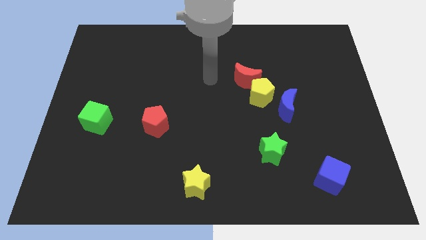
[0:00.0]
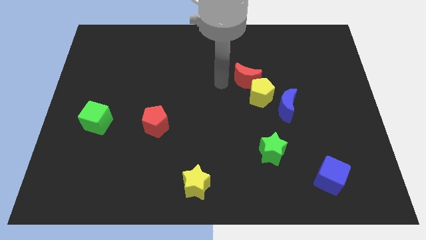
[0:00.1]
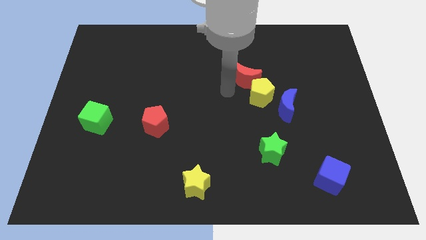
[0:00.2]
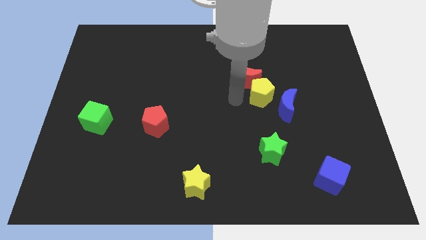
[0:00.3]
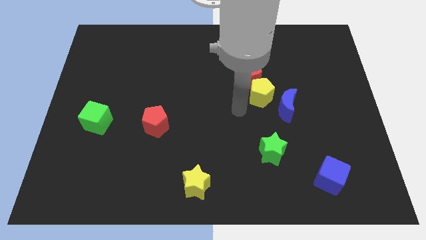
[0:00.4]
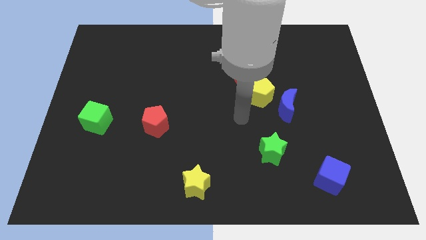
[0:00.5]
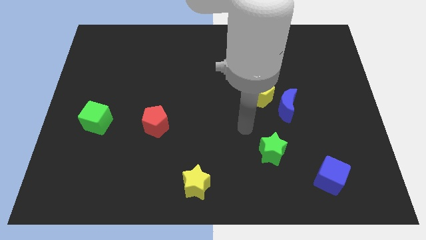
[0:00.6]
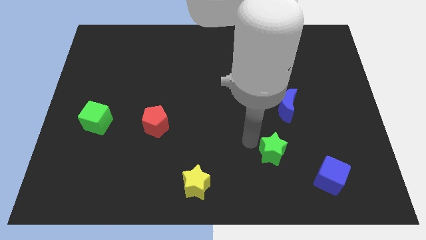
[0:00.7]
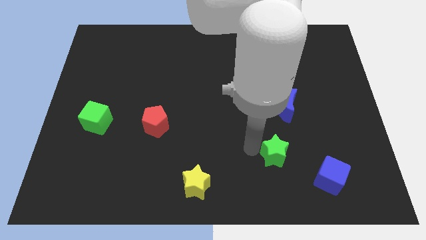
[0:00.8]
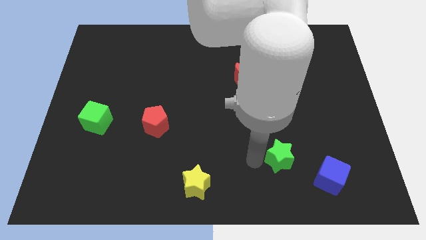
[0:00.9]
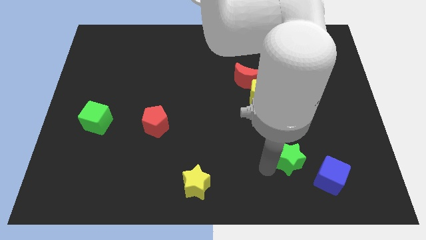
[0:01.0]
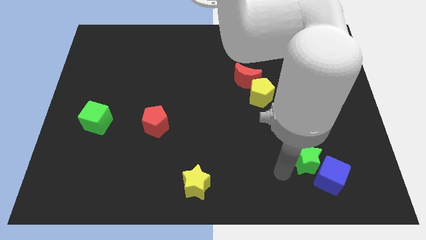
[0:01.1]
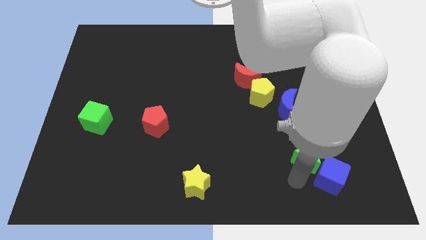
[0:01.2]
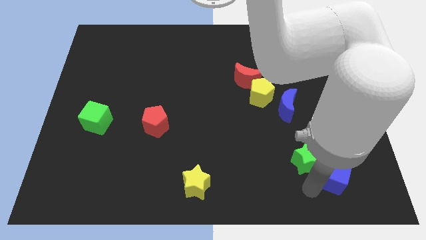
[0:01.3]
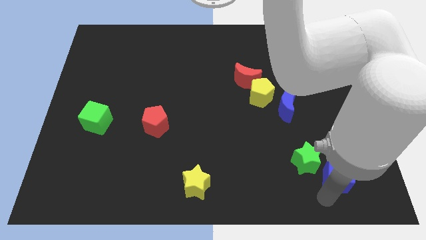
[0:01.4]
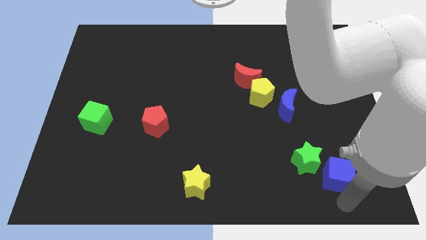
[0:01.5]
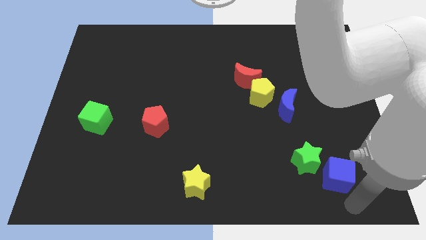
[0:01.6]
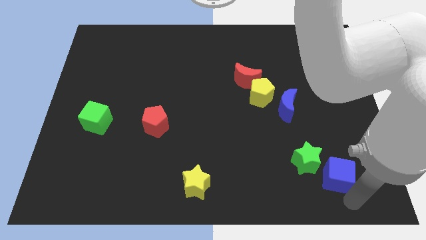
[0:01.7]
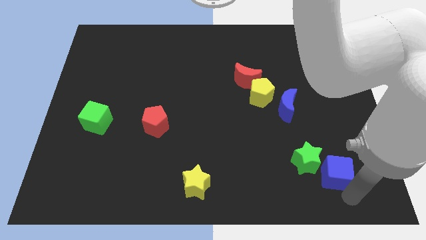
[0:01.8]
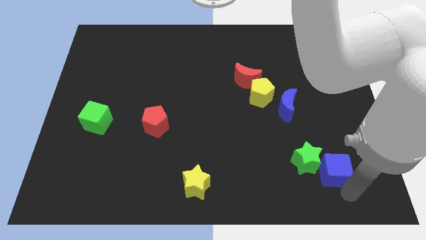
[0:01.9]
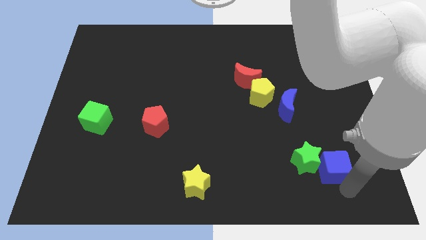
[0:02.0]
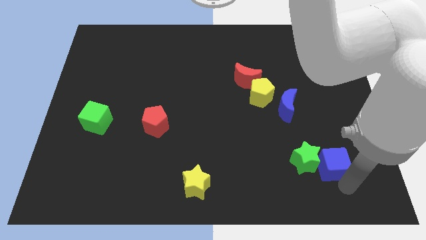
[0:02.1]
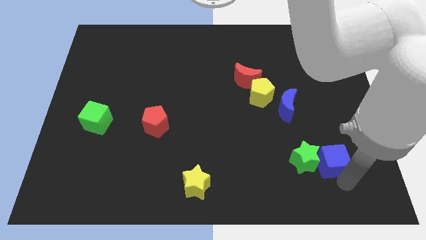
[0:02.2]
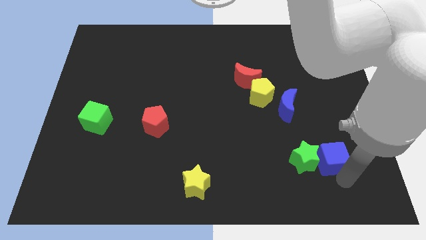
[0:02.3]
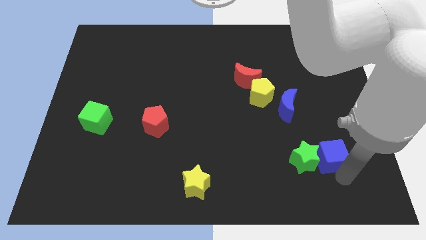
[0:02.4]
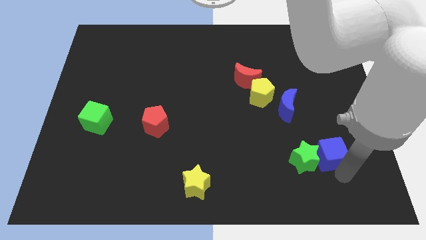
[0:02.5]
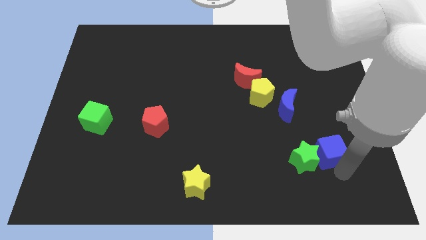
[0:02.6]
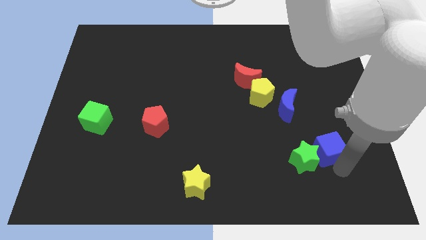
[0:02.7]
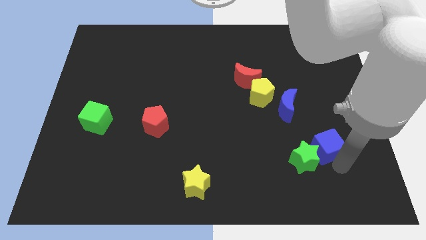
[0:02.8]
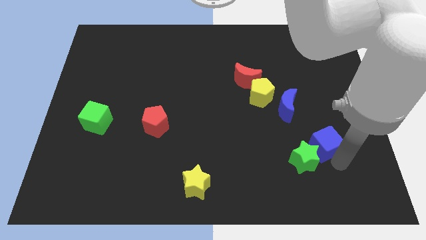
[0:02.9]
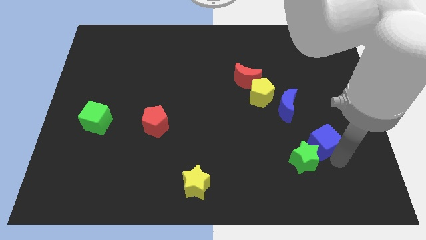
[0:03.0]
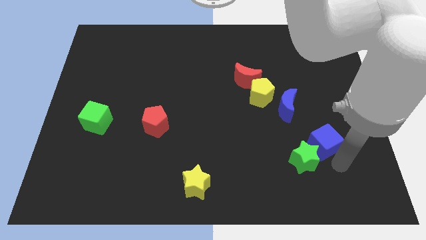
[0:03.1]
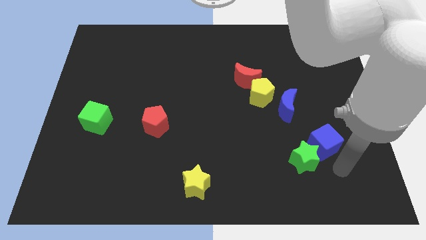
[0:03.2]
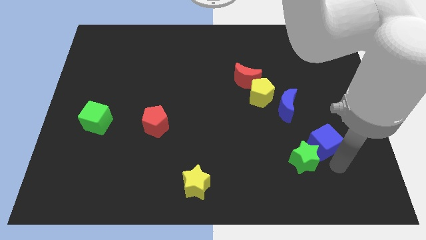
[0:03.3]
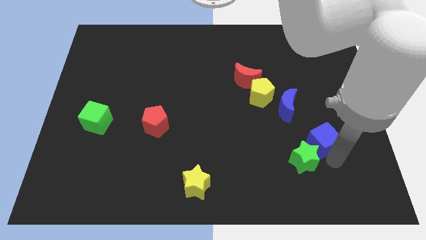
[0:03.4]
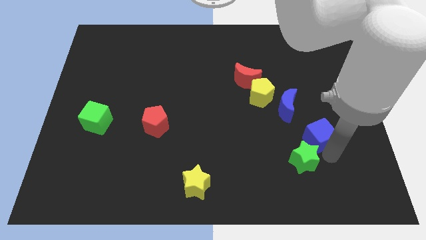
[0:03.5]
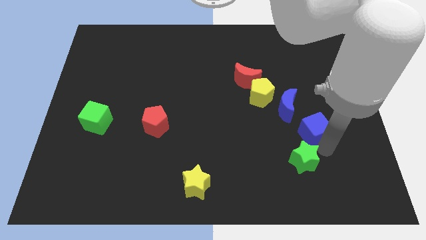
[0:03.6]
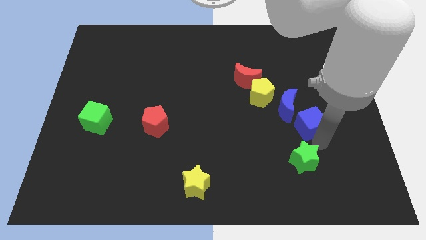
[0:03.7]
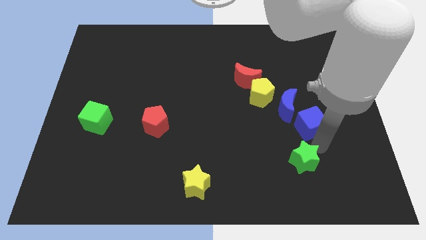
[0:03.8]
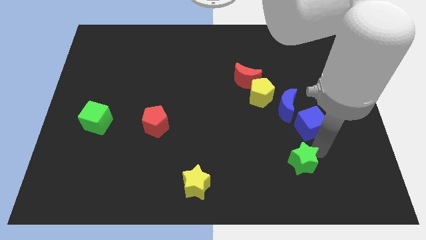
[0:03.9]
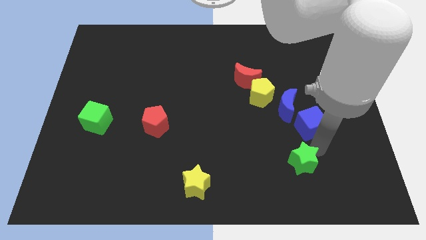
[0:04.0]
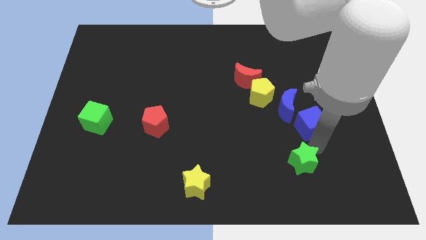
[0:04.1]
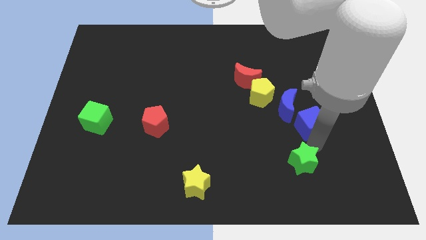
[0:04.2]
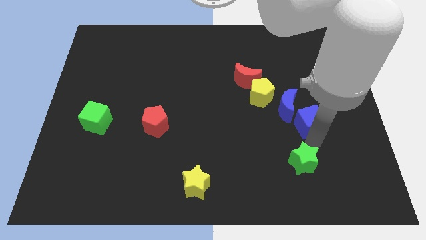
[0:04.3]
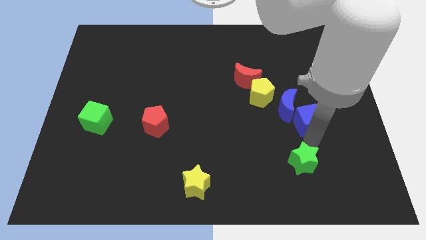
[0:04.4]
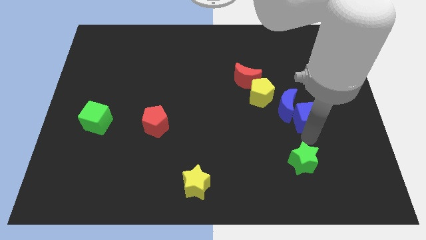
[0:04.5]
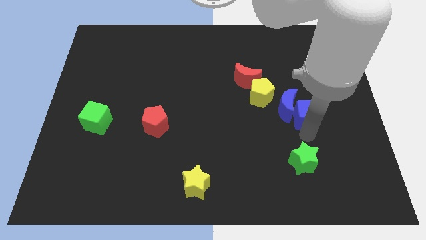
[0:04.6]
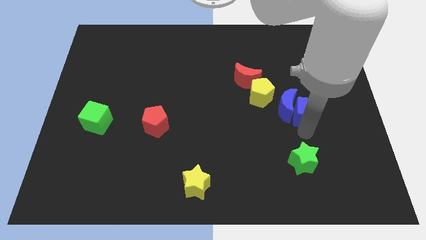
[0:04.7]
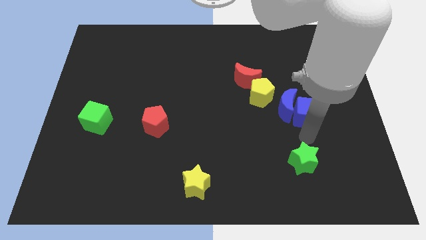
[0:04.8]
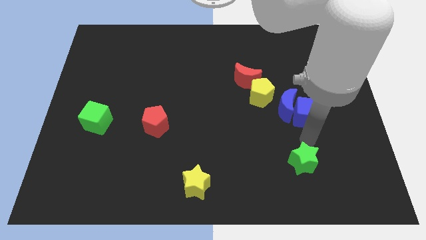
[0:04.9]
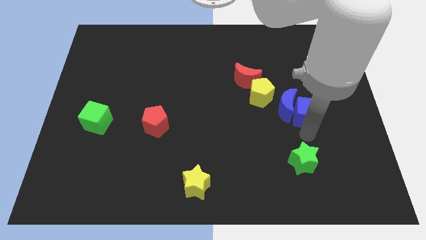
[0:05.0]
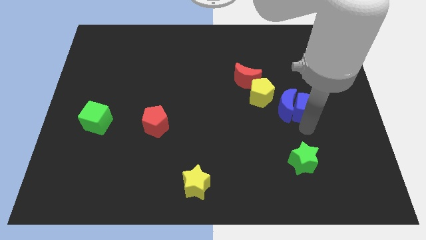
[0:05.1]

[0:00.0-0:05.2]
move the blue cube to the right side of the yellow pentagon
